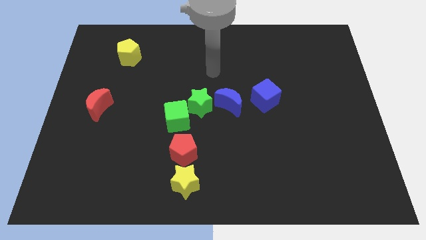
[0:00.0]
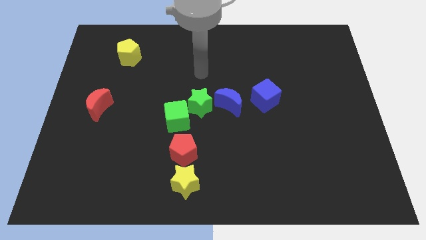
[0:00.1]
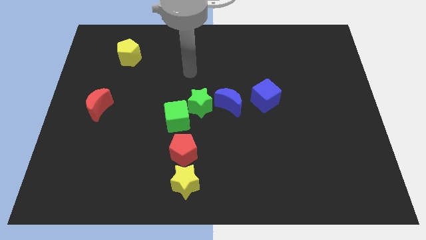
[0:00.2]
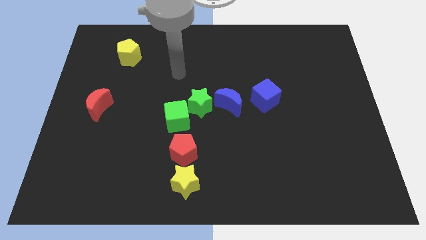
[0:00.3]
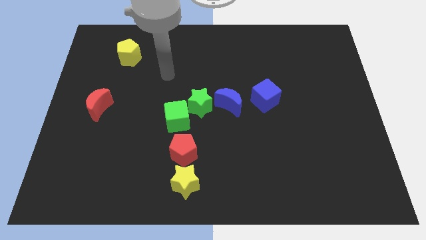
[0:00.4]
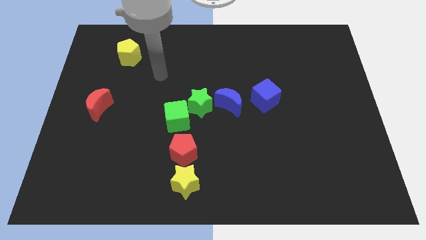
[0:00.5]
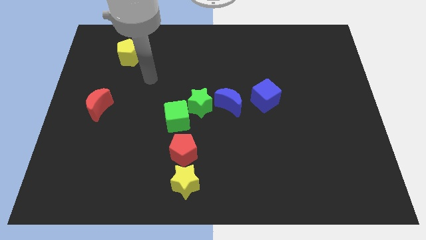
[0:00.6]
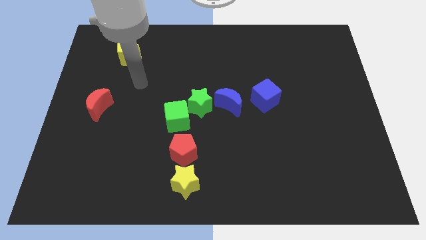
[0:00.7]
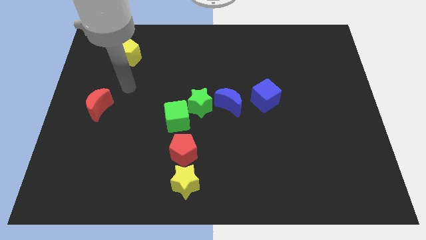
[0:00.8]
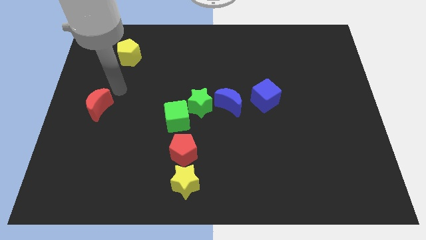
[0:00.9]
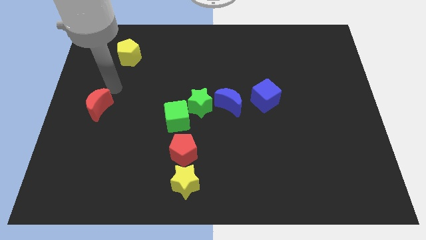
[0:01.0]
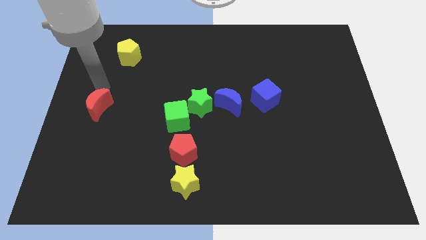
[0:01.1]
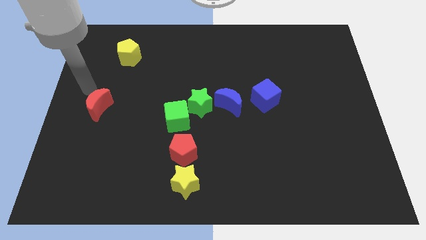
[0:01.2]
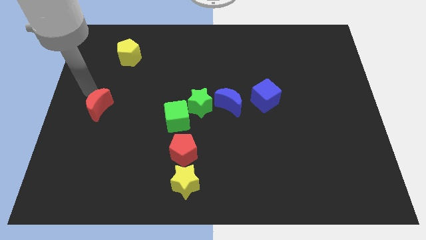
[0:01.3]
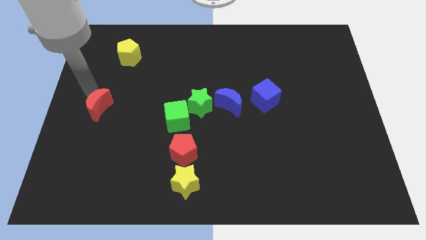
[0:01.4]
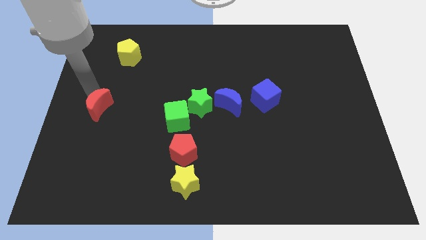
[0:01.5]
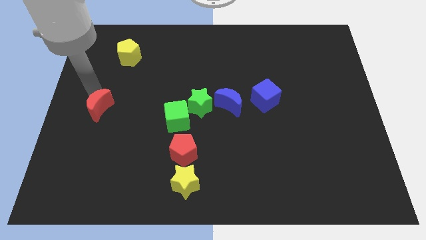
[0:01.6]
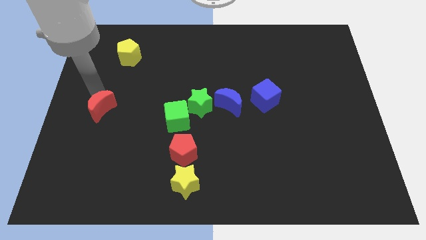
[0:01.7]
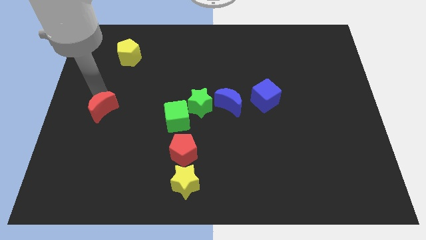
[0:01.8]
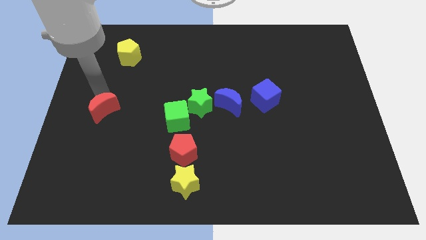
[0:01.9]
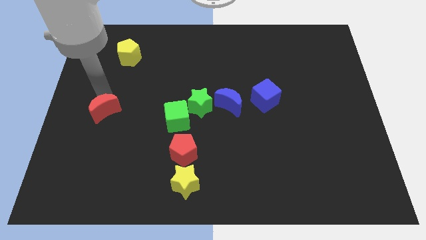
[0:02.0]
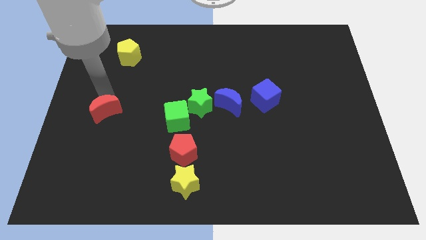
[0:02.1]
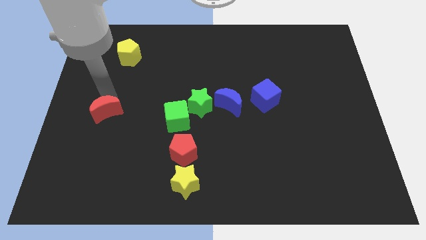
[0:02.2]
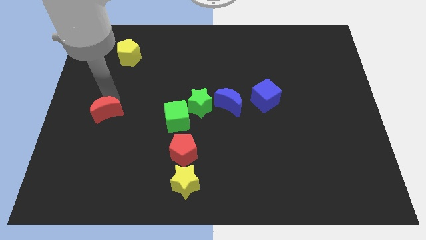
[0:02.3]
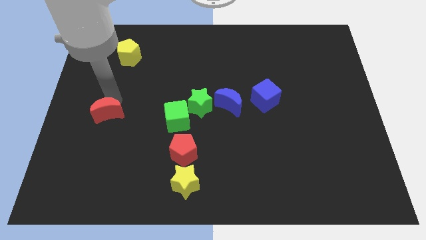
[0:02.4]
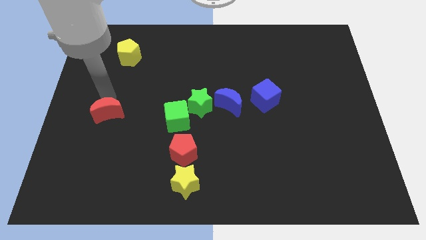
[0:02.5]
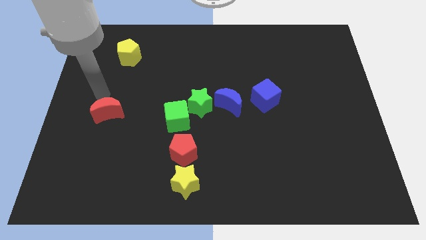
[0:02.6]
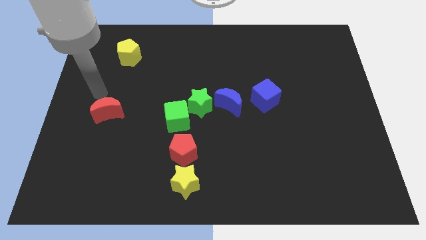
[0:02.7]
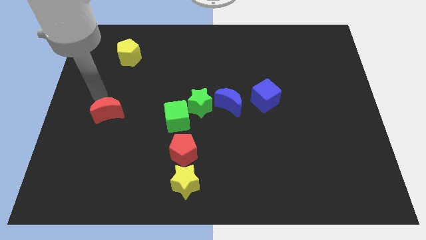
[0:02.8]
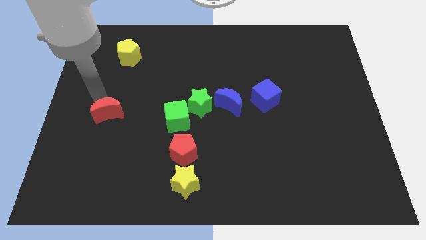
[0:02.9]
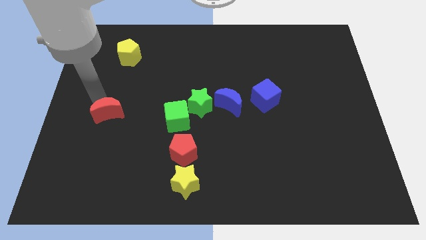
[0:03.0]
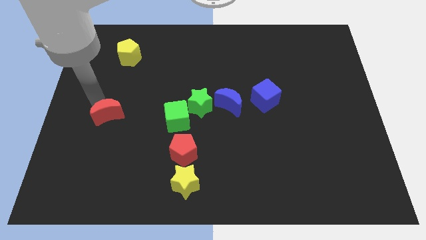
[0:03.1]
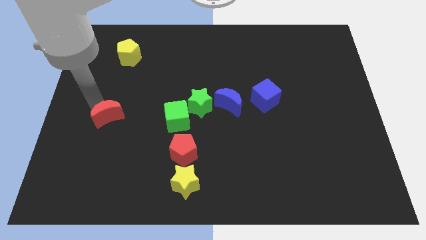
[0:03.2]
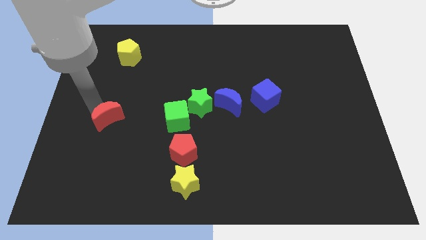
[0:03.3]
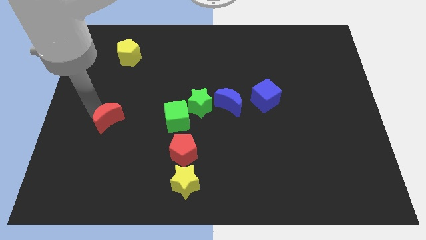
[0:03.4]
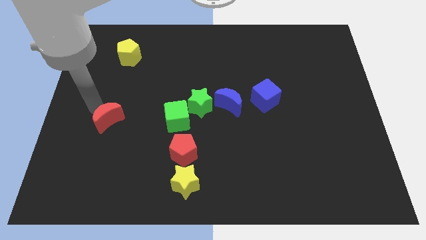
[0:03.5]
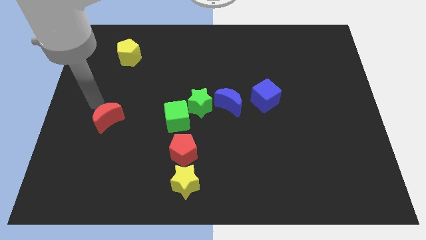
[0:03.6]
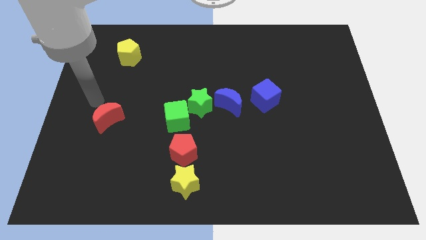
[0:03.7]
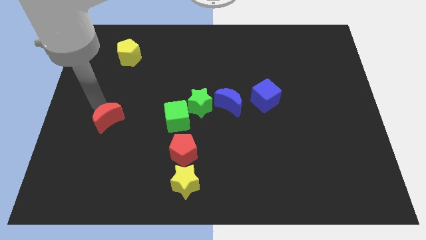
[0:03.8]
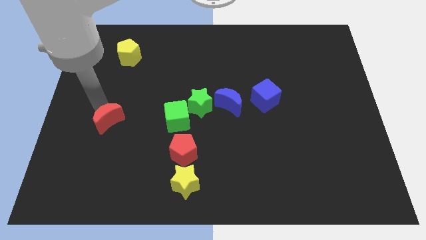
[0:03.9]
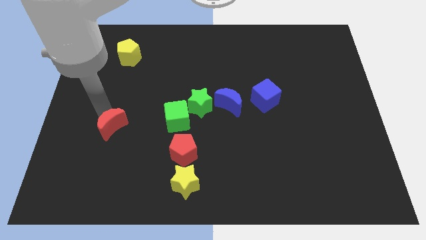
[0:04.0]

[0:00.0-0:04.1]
push the red moon down and right diagonally a little bit

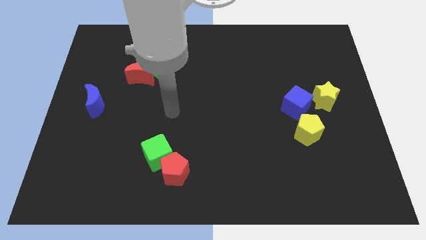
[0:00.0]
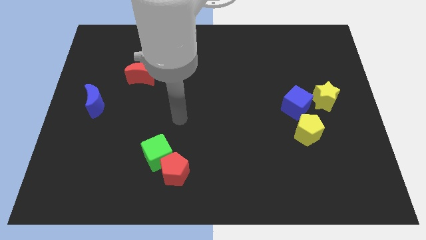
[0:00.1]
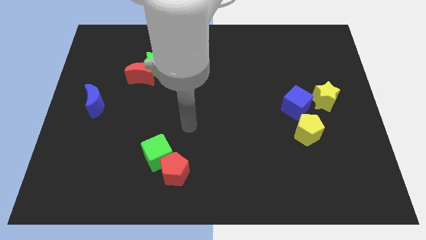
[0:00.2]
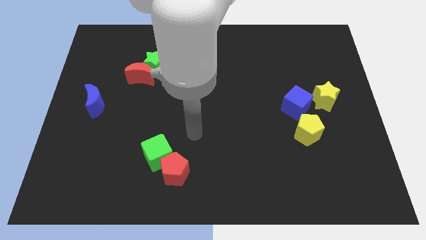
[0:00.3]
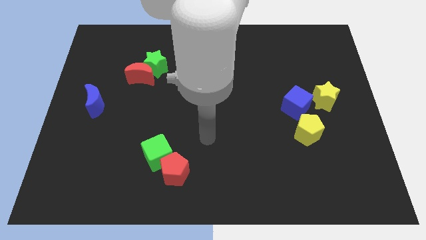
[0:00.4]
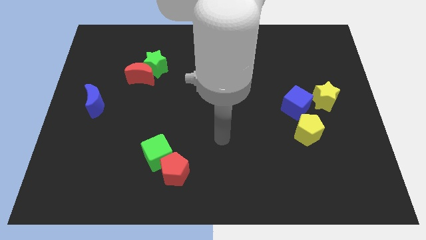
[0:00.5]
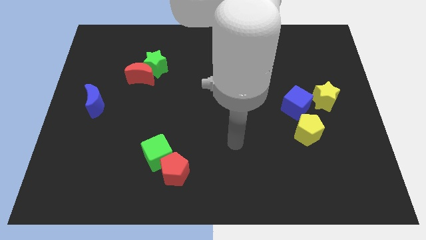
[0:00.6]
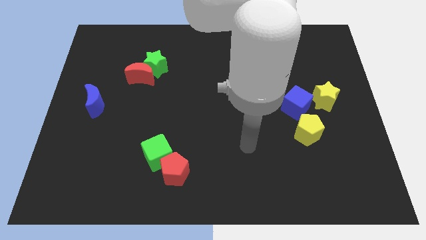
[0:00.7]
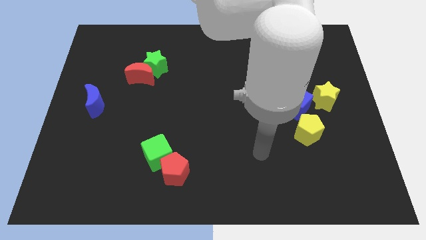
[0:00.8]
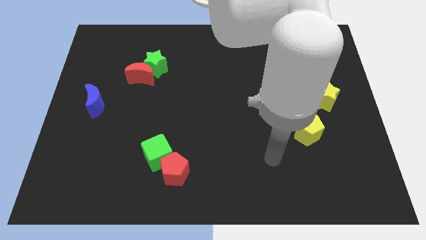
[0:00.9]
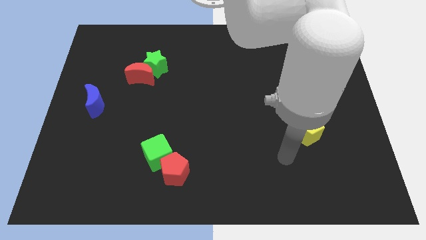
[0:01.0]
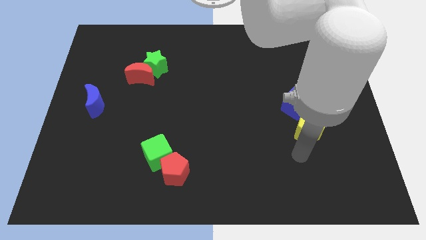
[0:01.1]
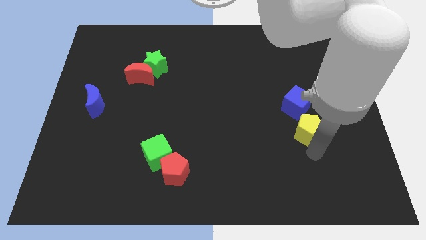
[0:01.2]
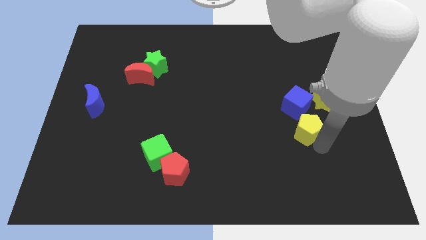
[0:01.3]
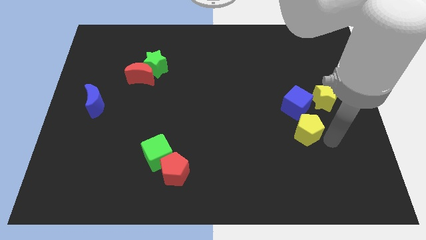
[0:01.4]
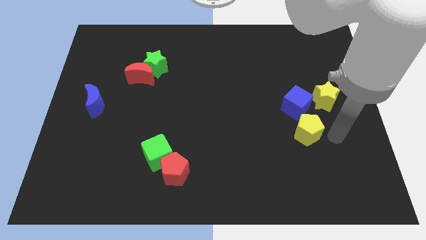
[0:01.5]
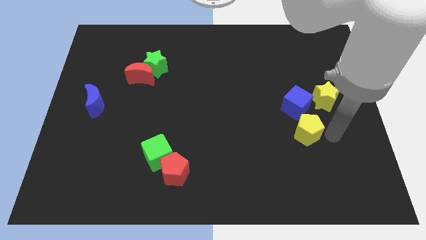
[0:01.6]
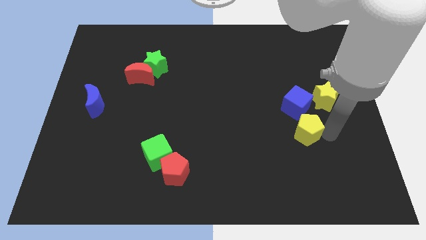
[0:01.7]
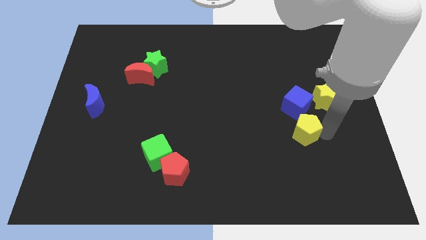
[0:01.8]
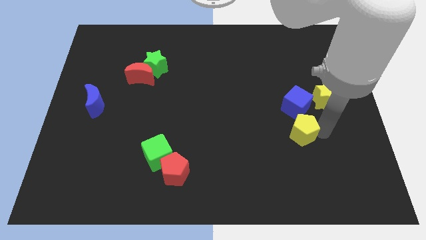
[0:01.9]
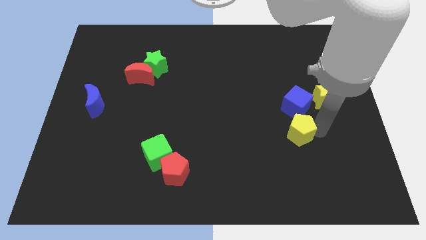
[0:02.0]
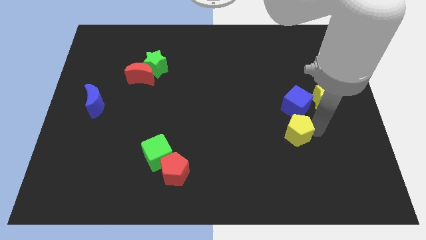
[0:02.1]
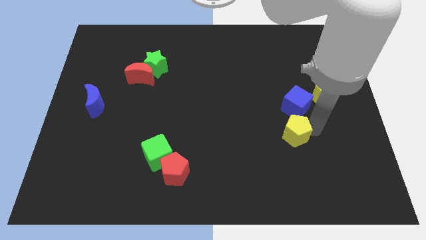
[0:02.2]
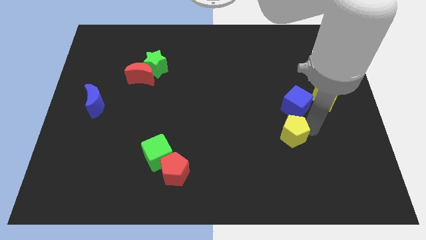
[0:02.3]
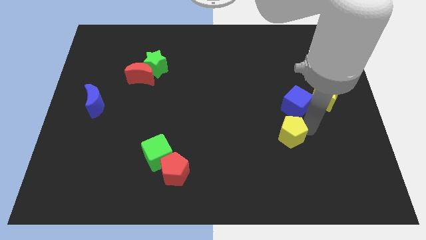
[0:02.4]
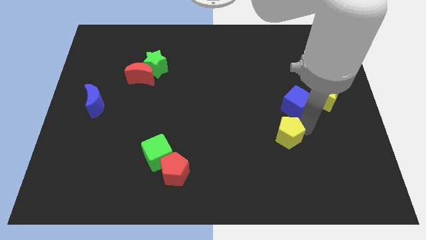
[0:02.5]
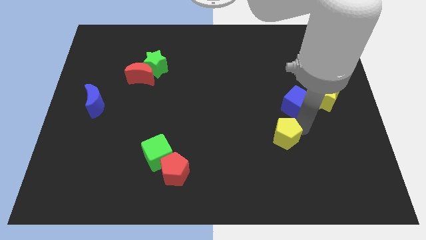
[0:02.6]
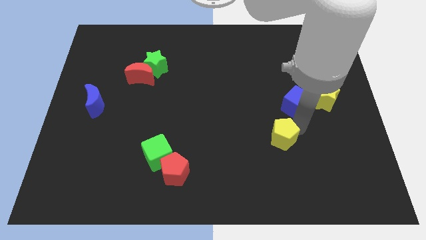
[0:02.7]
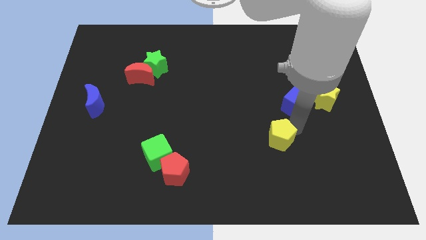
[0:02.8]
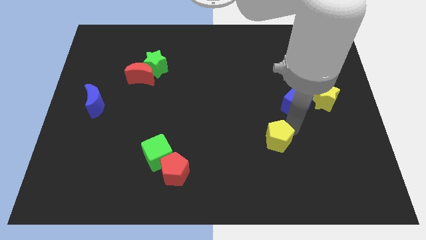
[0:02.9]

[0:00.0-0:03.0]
slide the yellow pentagon left a little bit

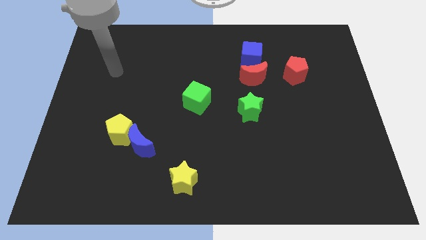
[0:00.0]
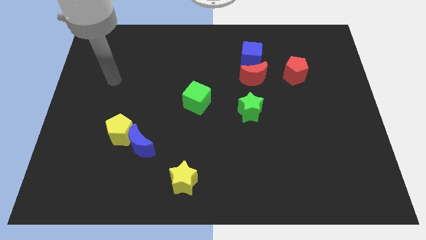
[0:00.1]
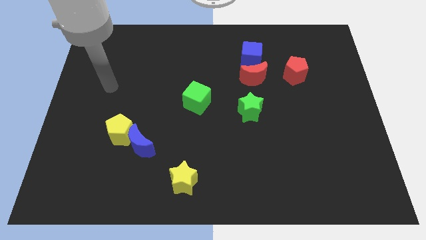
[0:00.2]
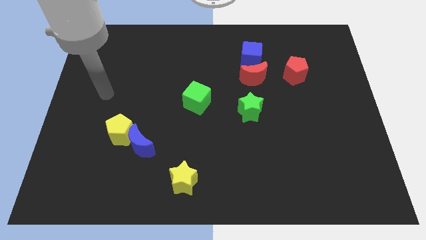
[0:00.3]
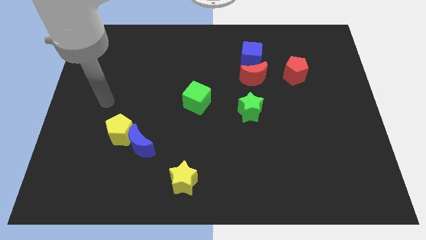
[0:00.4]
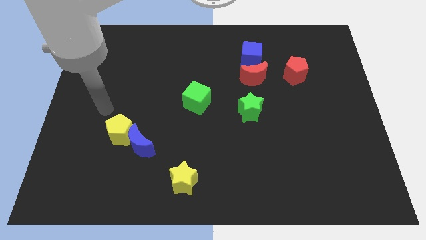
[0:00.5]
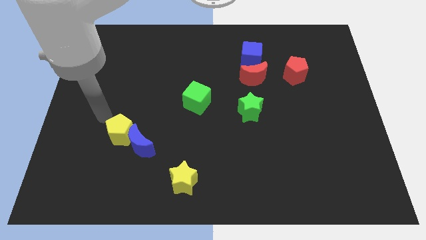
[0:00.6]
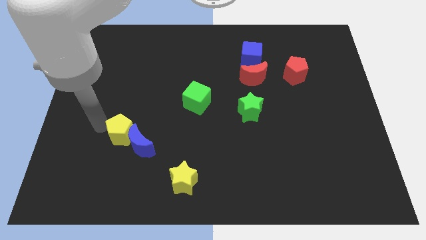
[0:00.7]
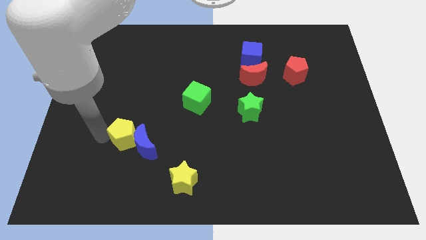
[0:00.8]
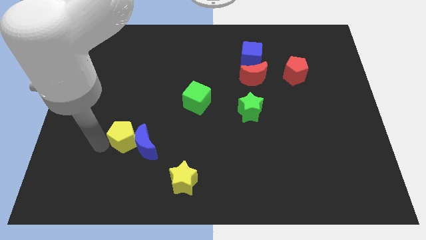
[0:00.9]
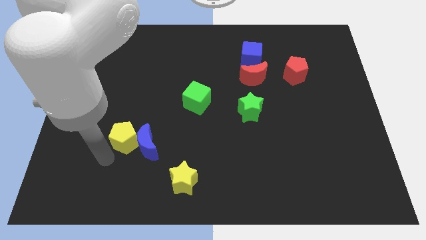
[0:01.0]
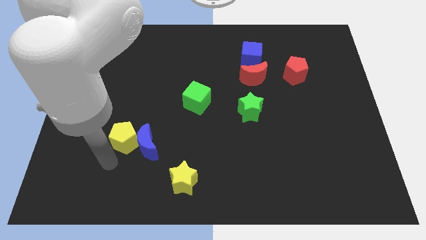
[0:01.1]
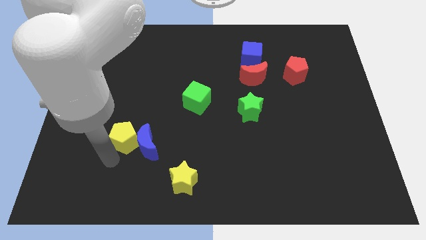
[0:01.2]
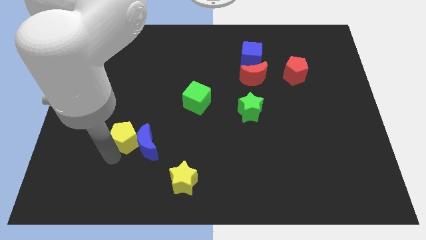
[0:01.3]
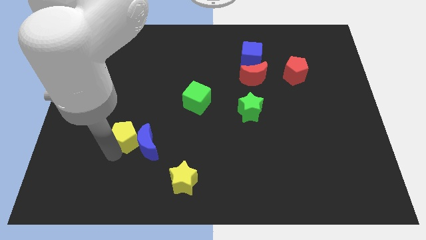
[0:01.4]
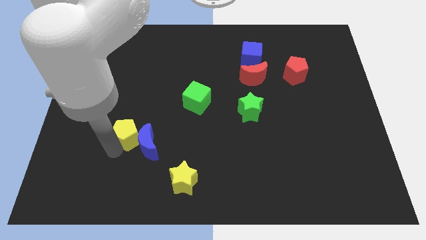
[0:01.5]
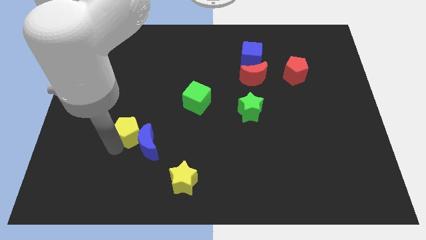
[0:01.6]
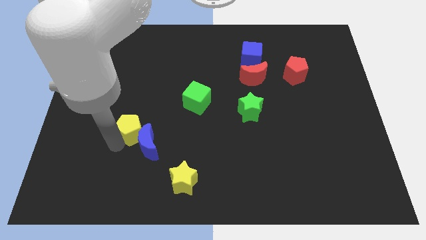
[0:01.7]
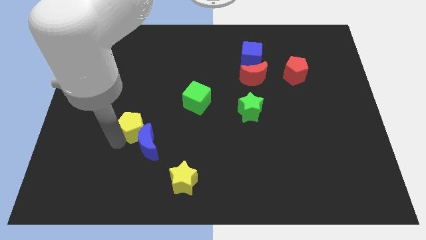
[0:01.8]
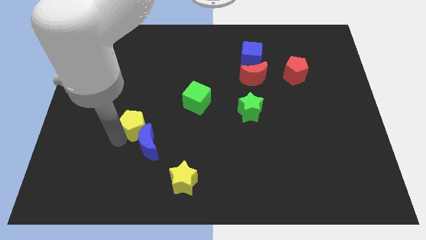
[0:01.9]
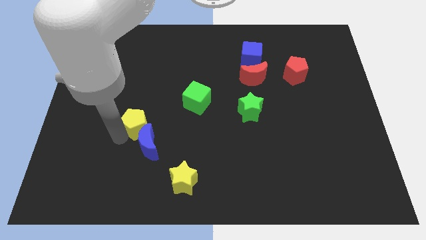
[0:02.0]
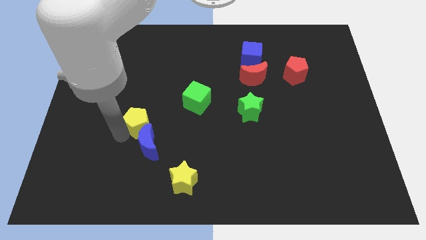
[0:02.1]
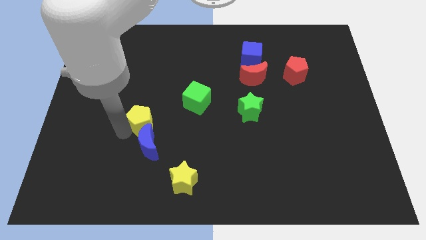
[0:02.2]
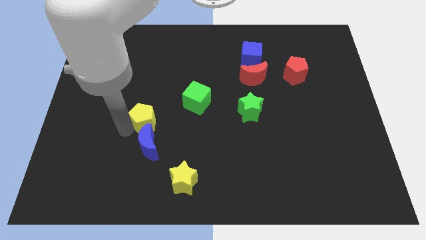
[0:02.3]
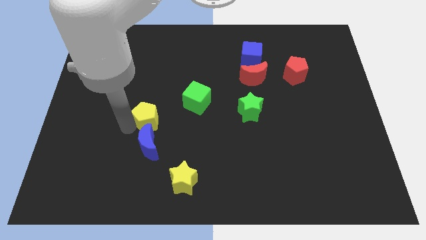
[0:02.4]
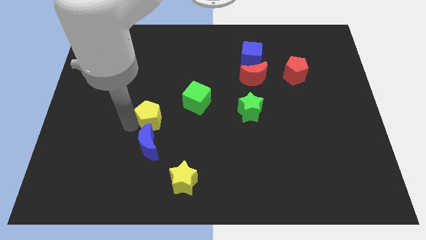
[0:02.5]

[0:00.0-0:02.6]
slide the yellow pentagon diagonally up and to the right a little
